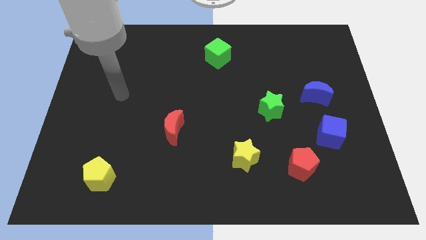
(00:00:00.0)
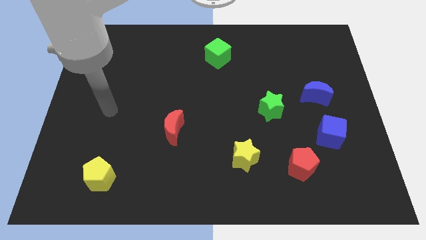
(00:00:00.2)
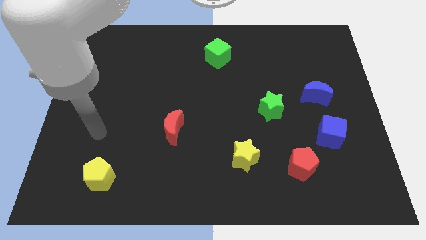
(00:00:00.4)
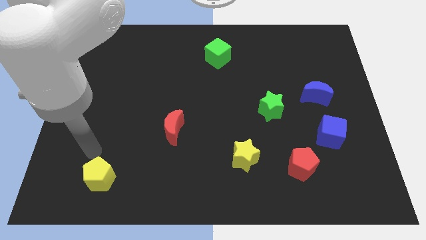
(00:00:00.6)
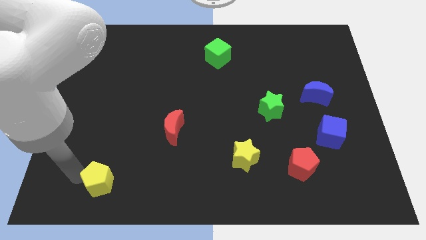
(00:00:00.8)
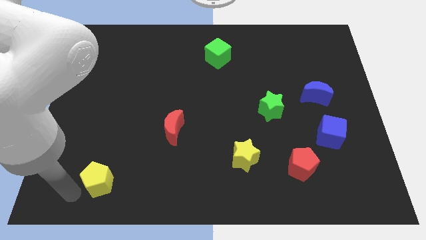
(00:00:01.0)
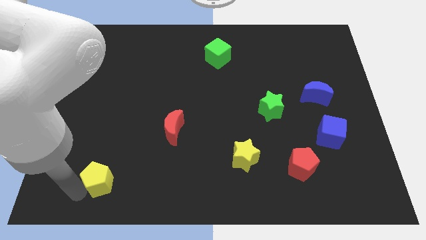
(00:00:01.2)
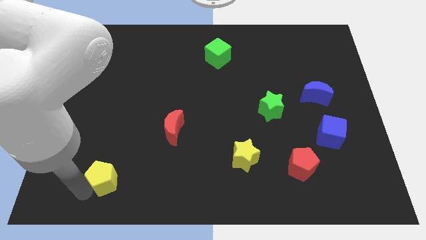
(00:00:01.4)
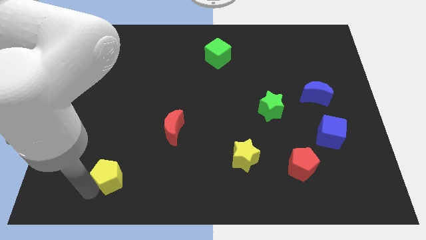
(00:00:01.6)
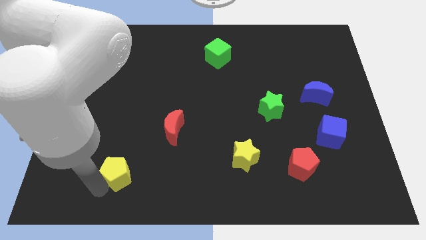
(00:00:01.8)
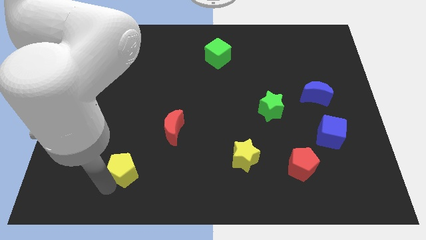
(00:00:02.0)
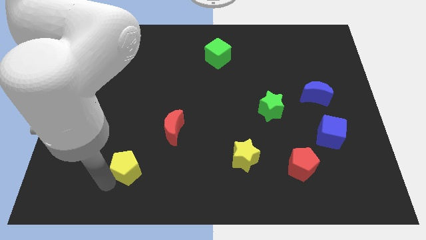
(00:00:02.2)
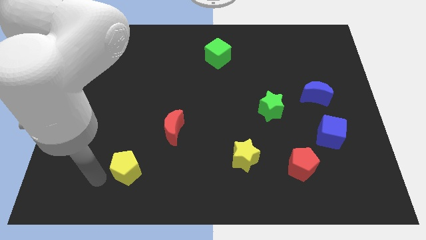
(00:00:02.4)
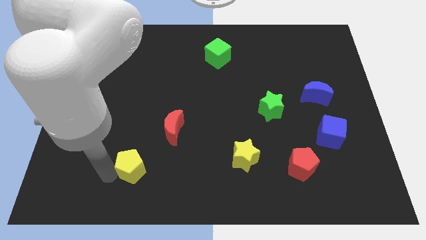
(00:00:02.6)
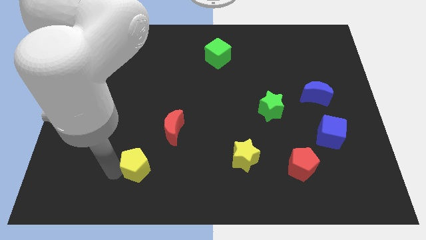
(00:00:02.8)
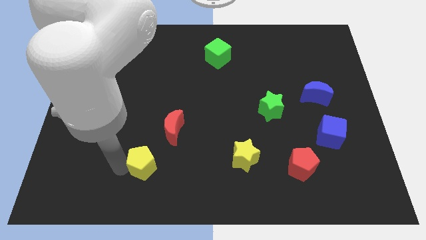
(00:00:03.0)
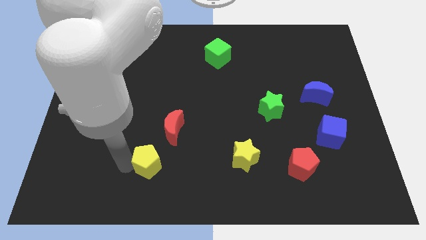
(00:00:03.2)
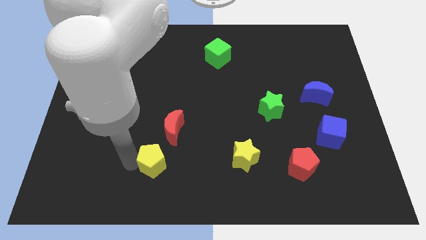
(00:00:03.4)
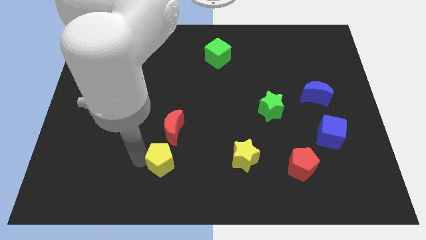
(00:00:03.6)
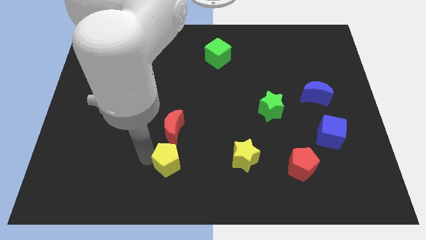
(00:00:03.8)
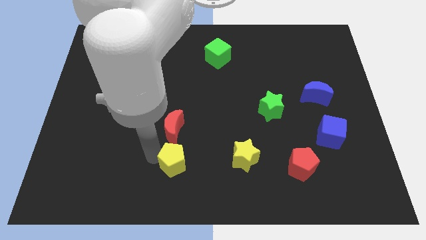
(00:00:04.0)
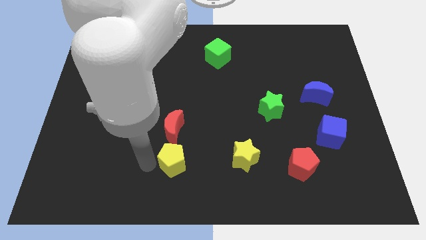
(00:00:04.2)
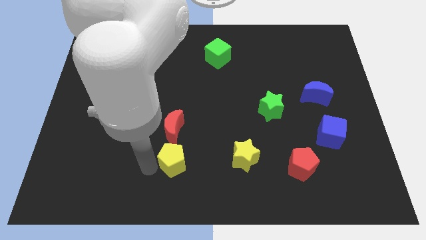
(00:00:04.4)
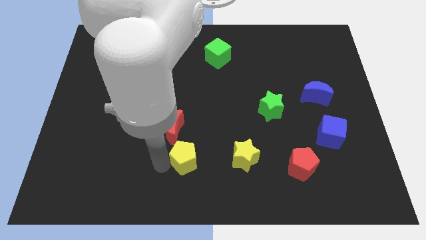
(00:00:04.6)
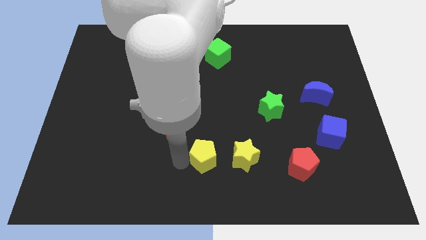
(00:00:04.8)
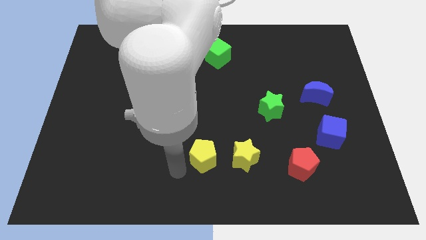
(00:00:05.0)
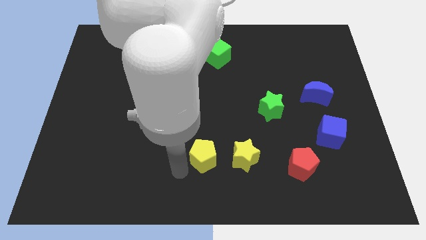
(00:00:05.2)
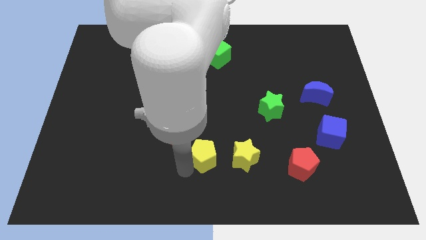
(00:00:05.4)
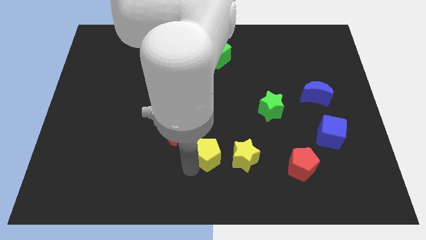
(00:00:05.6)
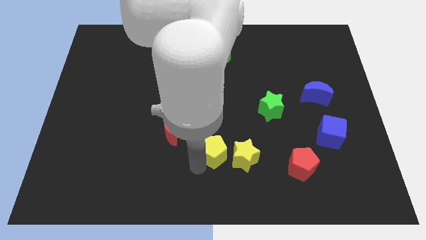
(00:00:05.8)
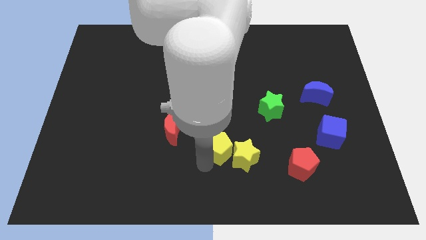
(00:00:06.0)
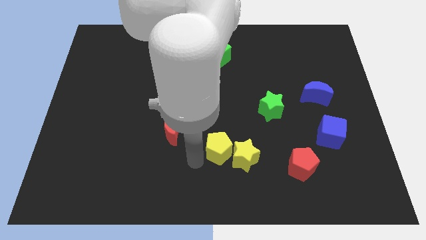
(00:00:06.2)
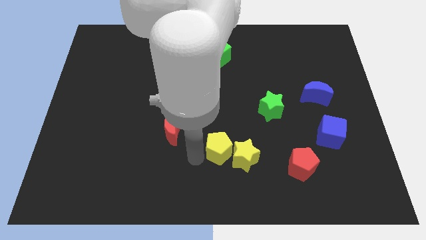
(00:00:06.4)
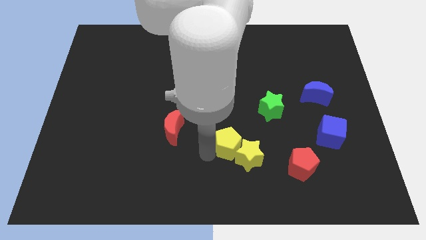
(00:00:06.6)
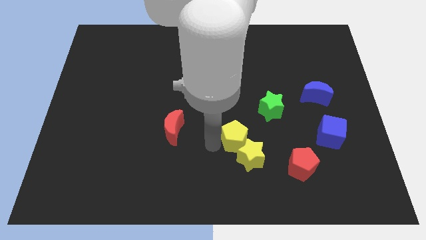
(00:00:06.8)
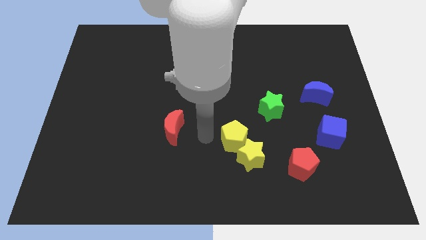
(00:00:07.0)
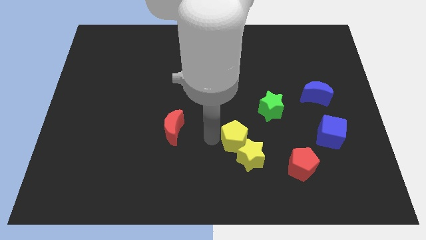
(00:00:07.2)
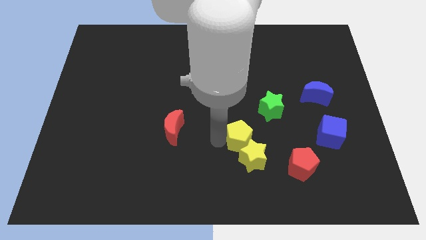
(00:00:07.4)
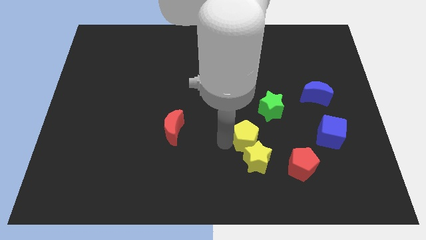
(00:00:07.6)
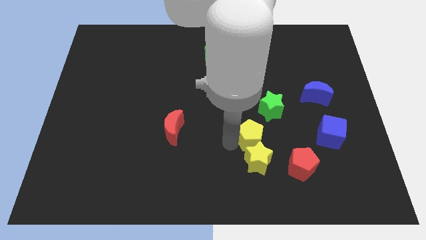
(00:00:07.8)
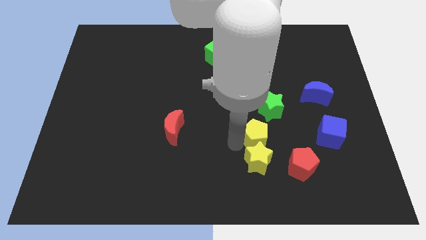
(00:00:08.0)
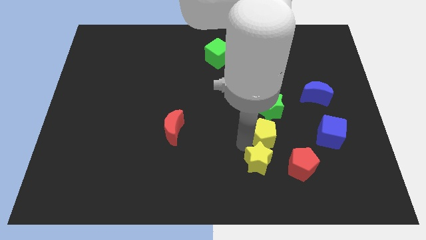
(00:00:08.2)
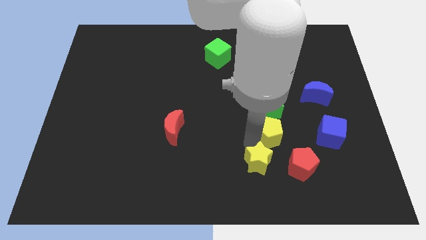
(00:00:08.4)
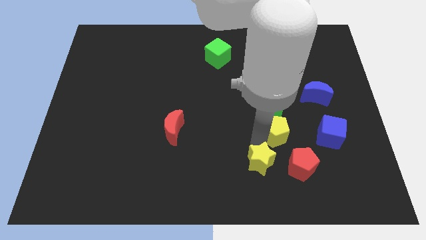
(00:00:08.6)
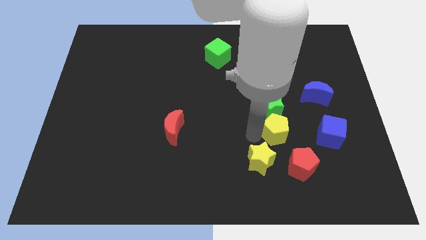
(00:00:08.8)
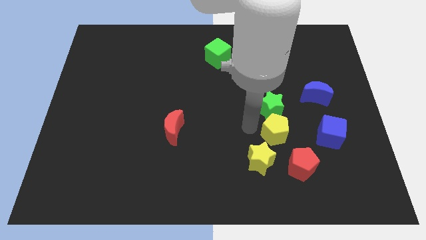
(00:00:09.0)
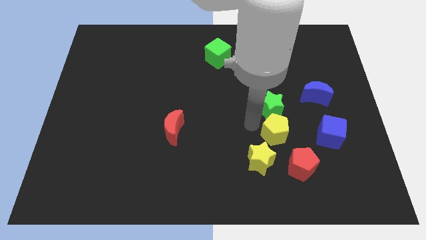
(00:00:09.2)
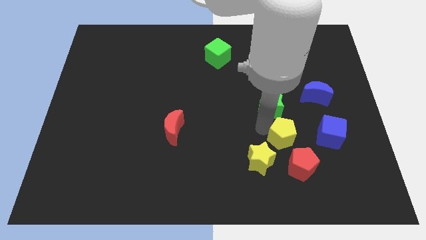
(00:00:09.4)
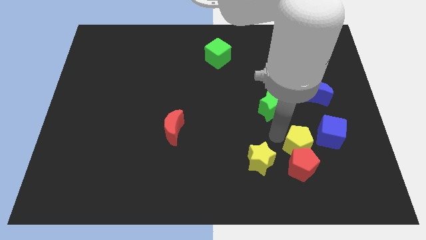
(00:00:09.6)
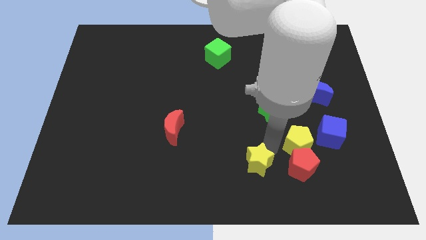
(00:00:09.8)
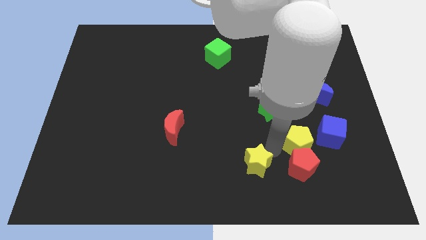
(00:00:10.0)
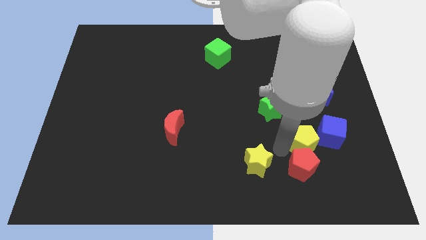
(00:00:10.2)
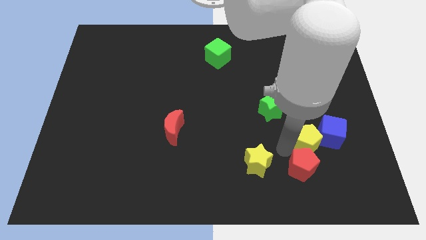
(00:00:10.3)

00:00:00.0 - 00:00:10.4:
put the yellow pentagon close to the blue cube

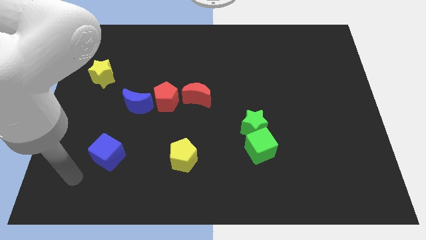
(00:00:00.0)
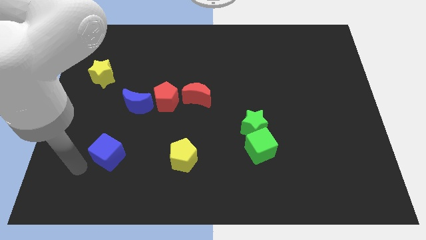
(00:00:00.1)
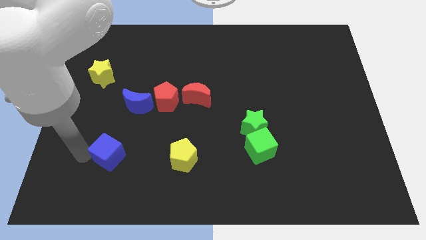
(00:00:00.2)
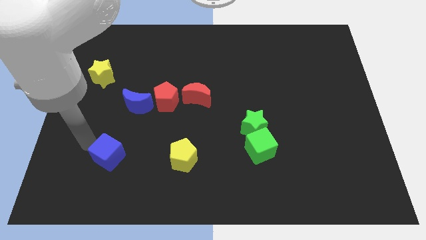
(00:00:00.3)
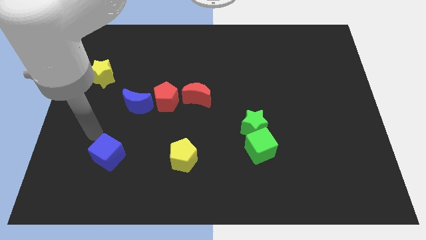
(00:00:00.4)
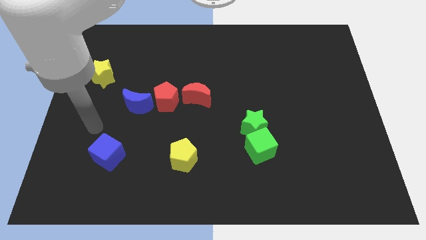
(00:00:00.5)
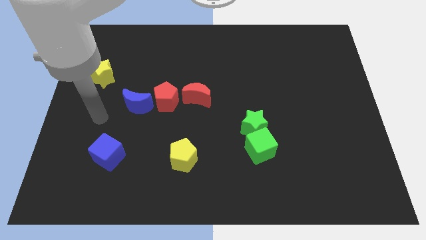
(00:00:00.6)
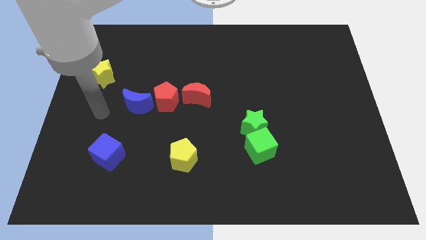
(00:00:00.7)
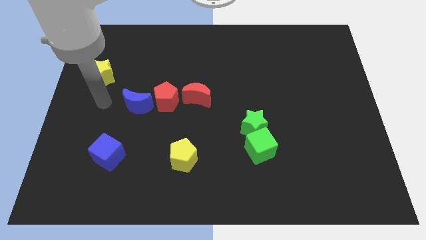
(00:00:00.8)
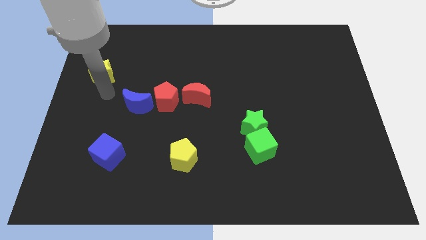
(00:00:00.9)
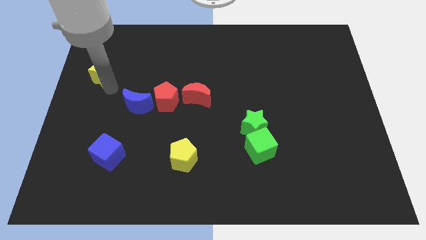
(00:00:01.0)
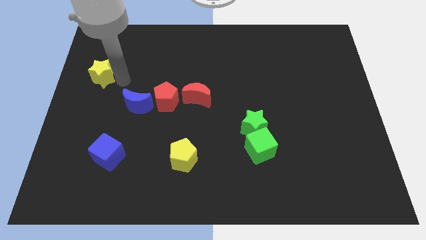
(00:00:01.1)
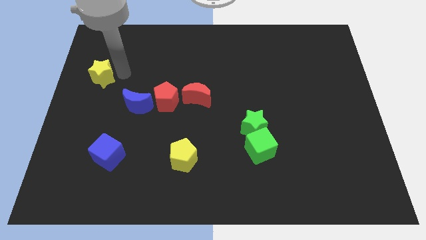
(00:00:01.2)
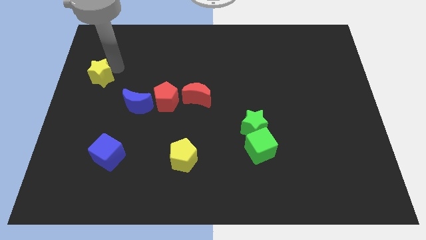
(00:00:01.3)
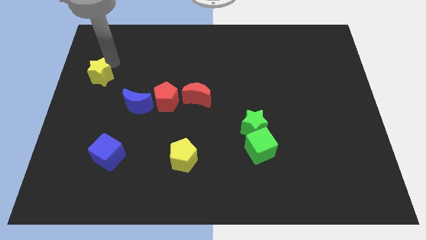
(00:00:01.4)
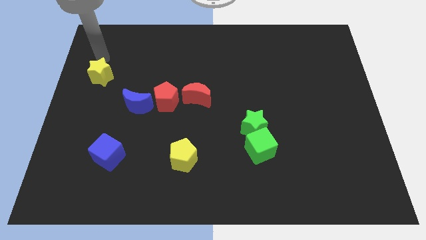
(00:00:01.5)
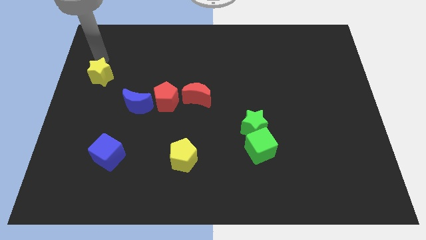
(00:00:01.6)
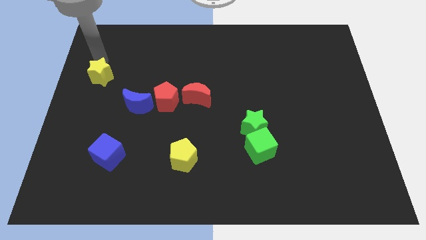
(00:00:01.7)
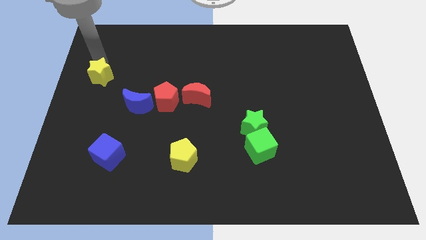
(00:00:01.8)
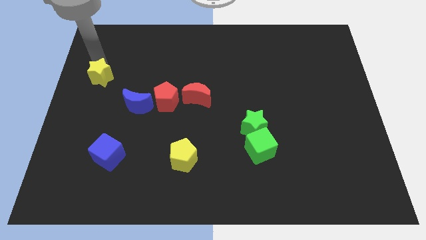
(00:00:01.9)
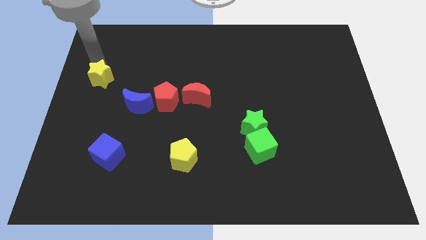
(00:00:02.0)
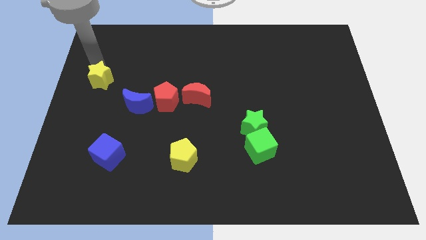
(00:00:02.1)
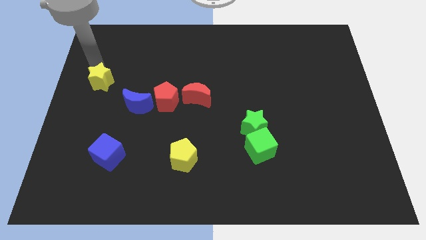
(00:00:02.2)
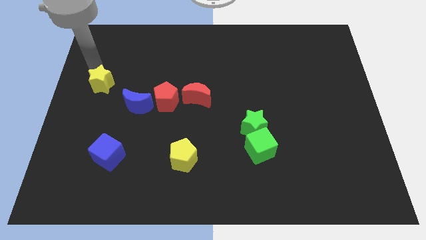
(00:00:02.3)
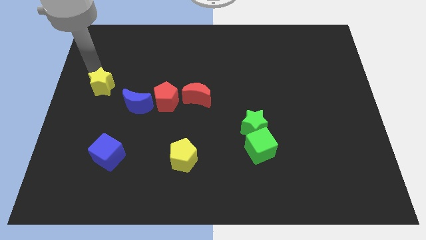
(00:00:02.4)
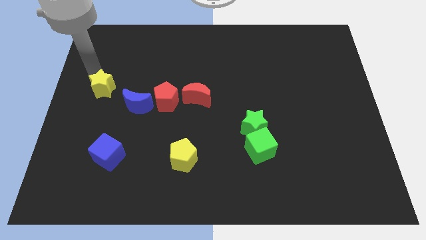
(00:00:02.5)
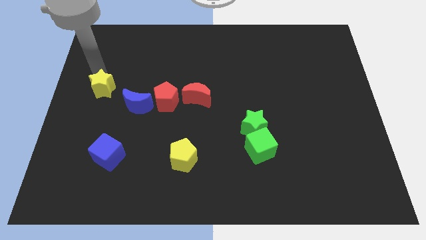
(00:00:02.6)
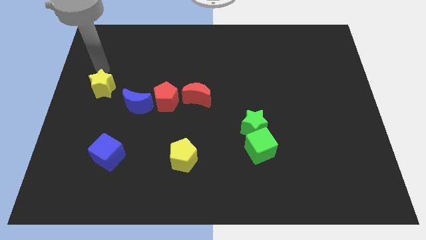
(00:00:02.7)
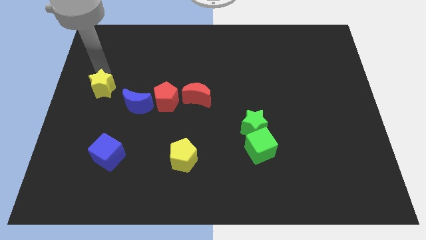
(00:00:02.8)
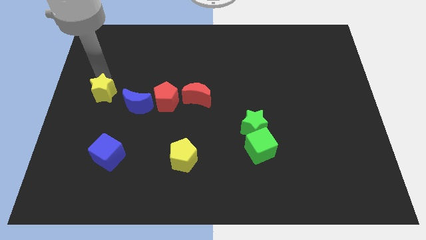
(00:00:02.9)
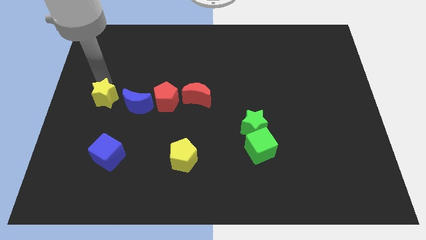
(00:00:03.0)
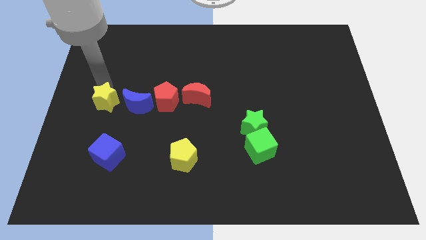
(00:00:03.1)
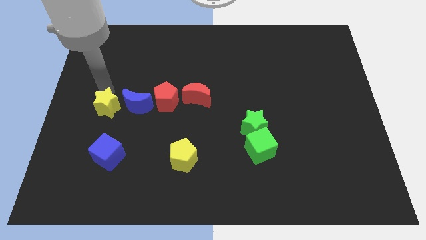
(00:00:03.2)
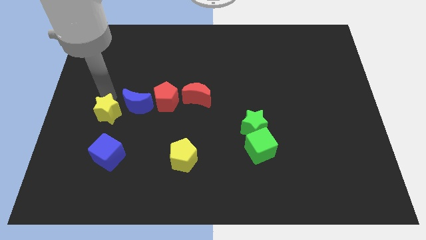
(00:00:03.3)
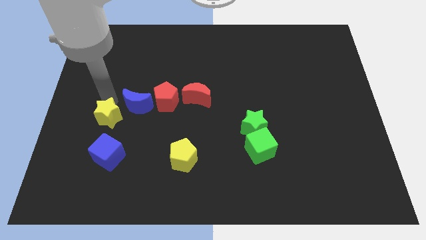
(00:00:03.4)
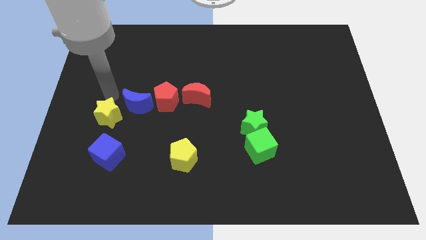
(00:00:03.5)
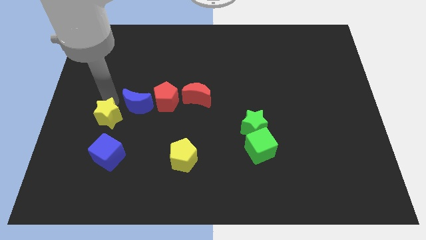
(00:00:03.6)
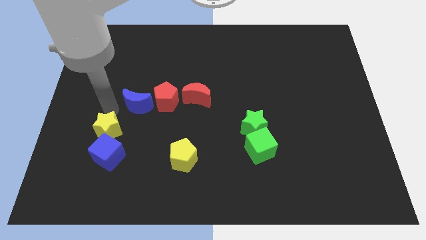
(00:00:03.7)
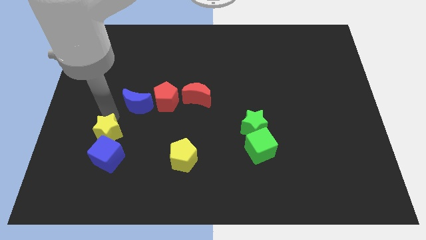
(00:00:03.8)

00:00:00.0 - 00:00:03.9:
put the yellow star close to the blue cube
